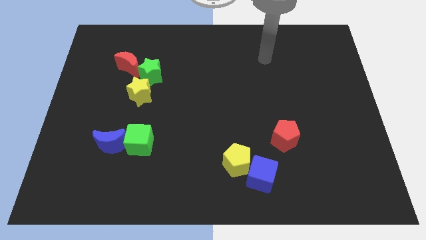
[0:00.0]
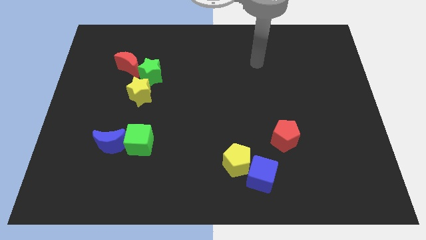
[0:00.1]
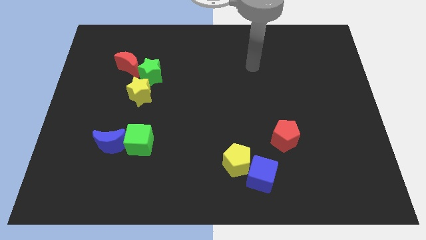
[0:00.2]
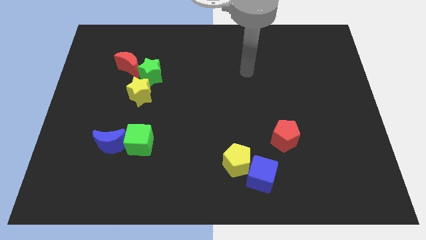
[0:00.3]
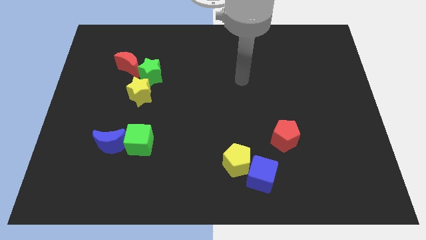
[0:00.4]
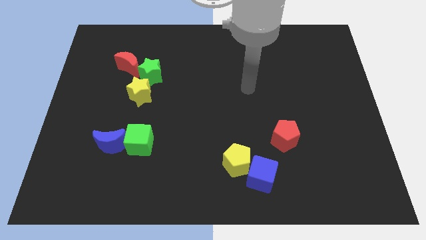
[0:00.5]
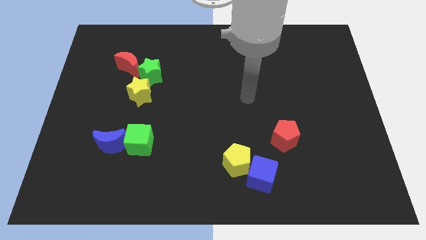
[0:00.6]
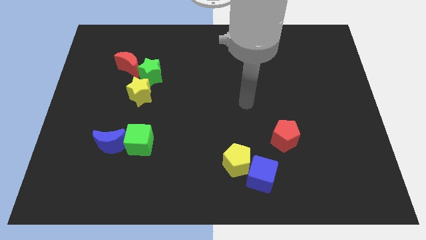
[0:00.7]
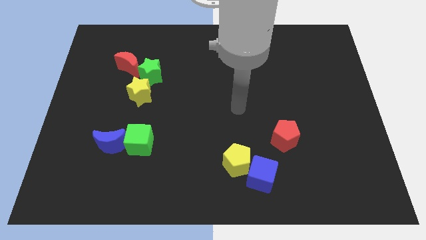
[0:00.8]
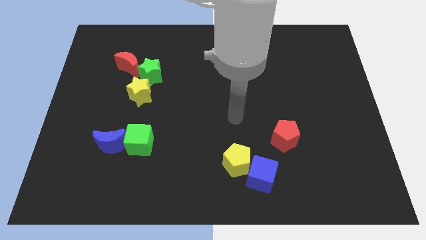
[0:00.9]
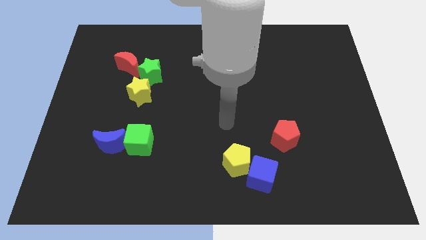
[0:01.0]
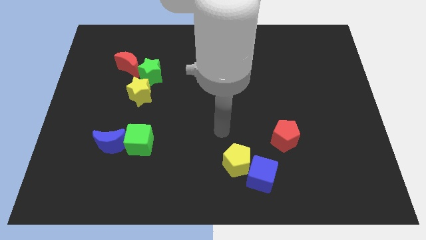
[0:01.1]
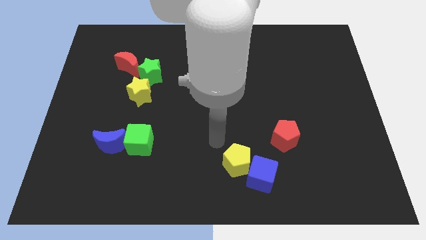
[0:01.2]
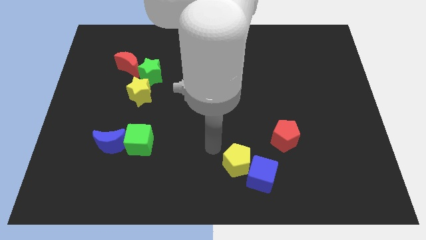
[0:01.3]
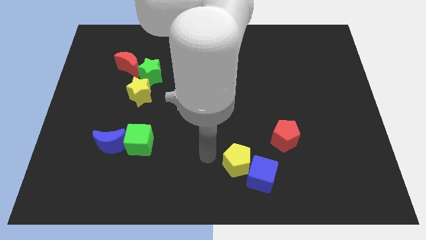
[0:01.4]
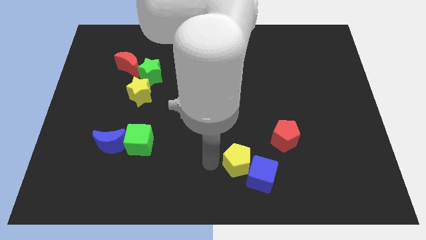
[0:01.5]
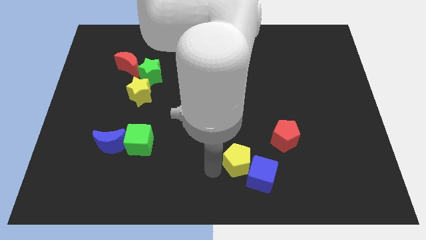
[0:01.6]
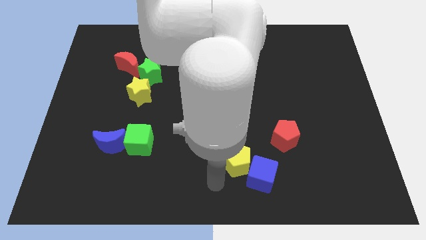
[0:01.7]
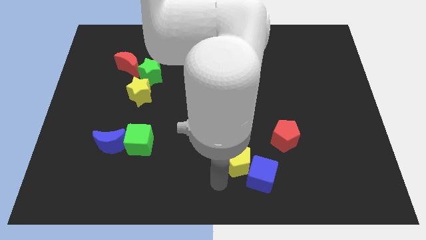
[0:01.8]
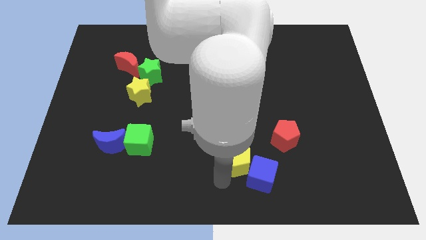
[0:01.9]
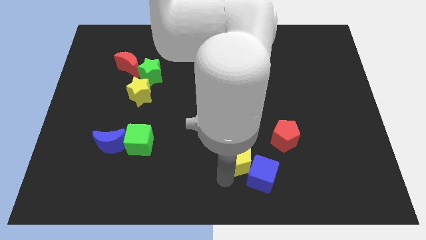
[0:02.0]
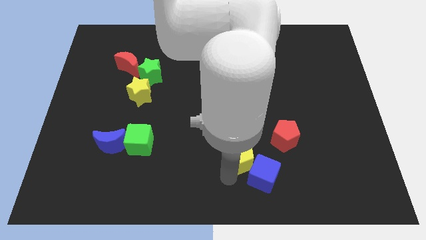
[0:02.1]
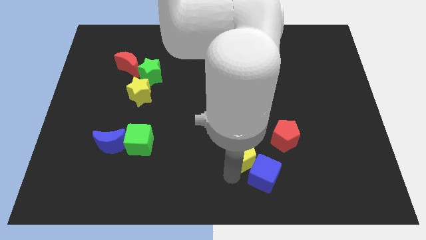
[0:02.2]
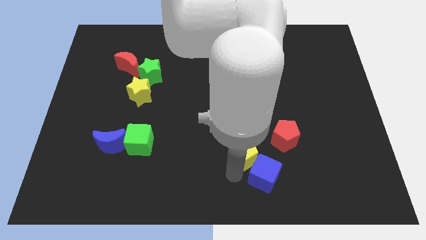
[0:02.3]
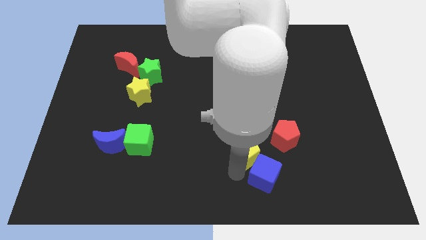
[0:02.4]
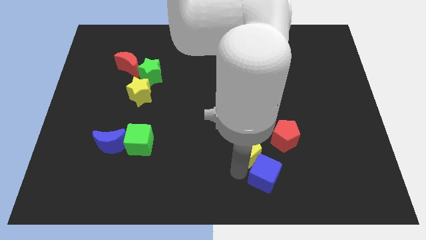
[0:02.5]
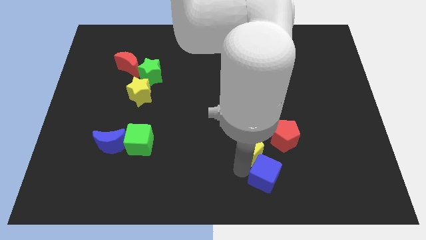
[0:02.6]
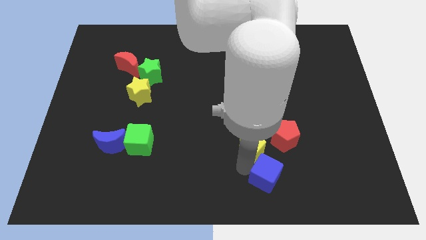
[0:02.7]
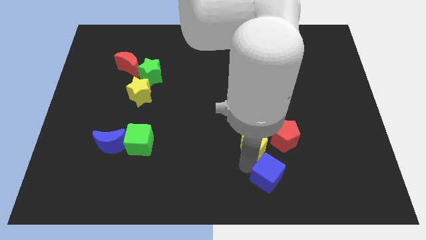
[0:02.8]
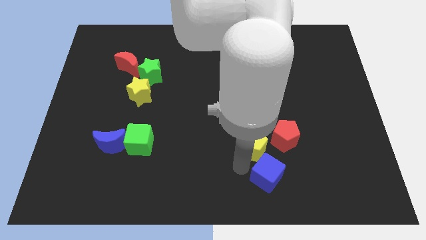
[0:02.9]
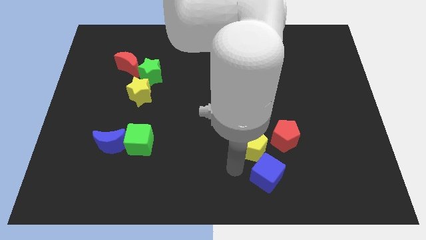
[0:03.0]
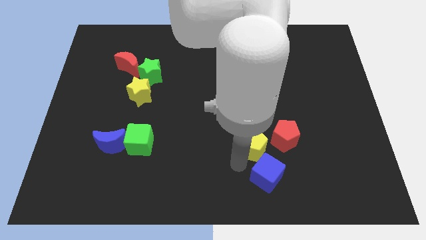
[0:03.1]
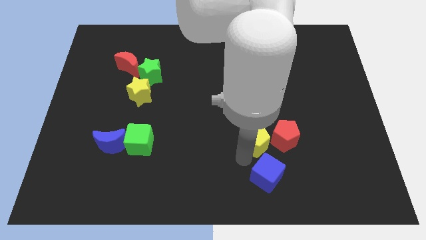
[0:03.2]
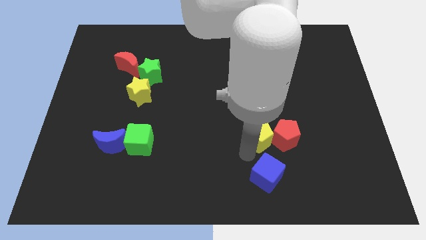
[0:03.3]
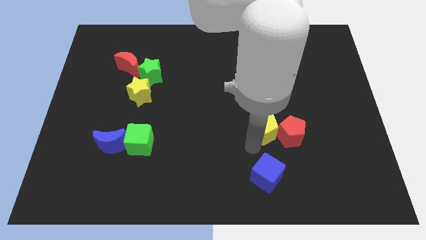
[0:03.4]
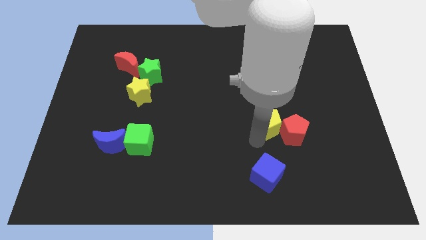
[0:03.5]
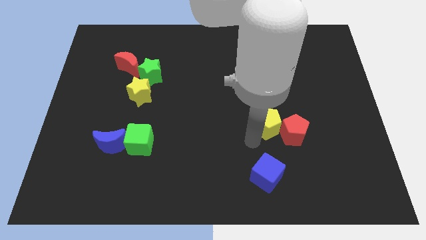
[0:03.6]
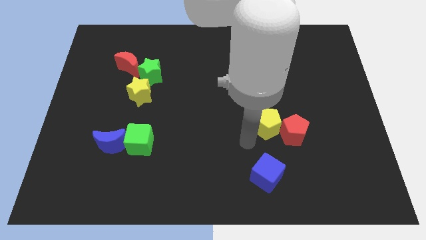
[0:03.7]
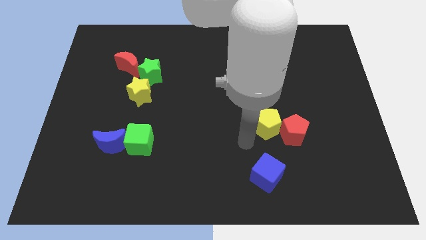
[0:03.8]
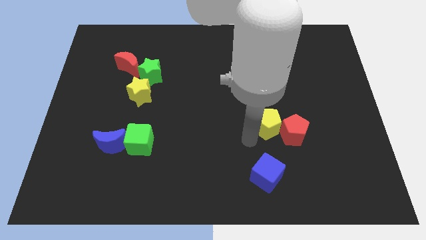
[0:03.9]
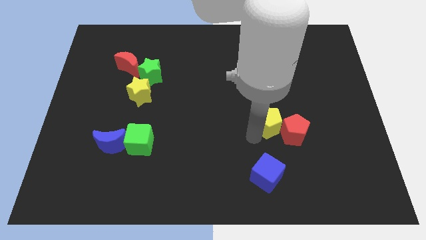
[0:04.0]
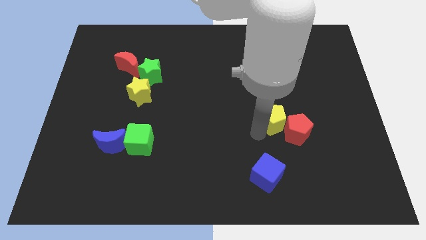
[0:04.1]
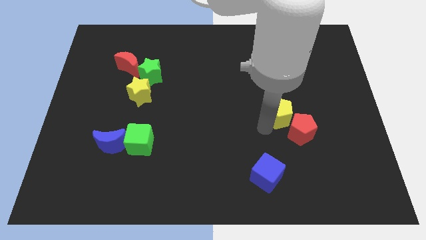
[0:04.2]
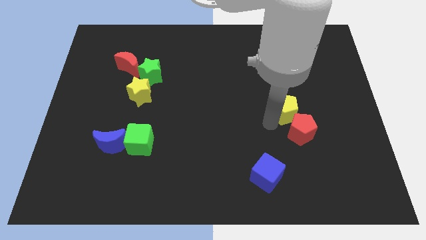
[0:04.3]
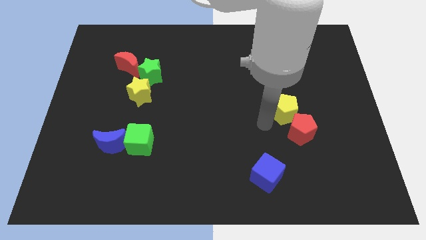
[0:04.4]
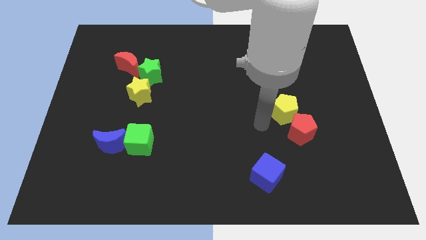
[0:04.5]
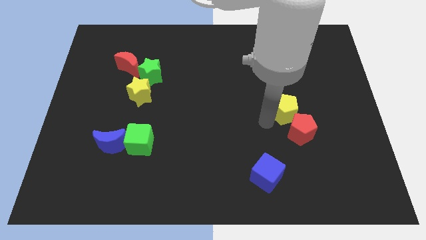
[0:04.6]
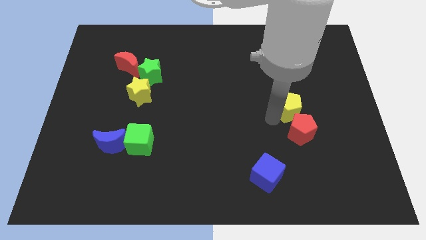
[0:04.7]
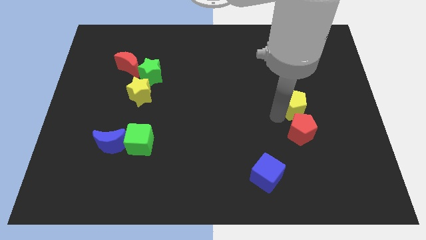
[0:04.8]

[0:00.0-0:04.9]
push the yellow pentagon upwards and then to the right

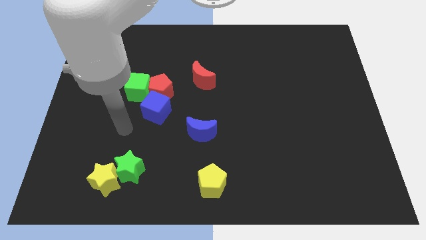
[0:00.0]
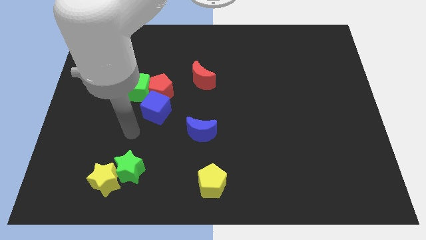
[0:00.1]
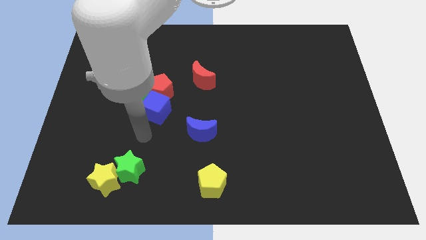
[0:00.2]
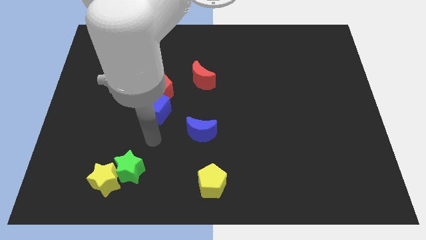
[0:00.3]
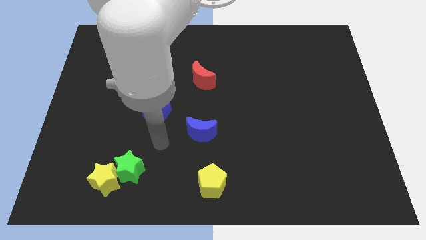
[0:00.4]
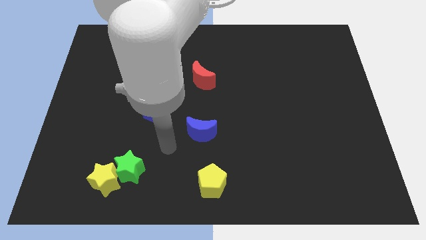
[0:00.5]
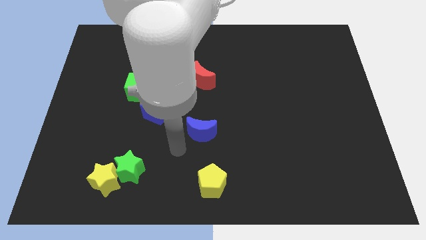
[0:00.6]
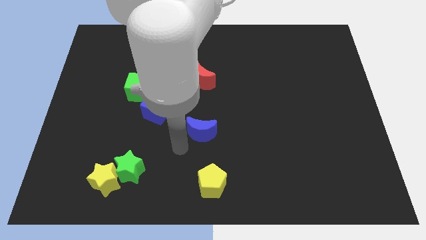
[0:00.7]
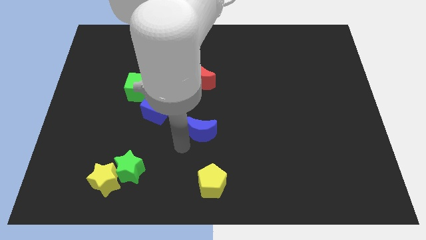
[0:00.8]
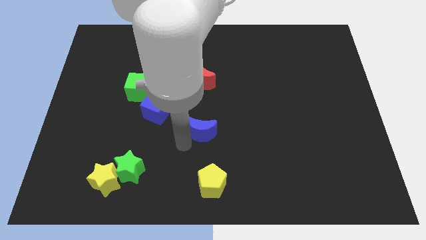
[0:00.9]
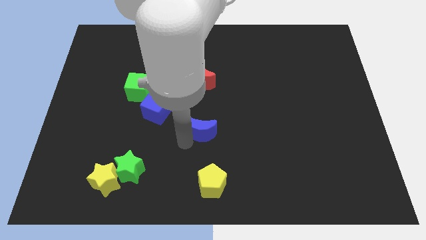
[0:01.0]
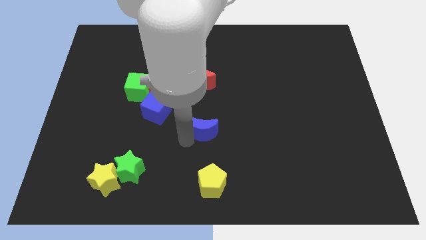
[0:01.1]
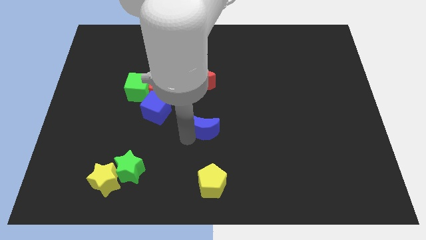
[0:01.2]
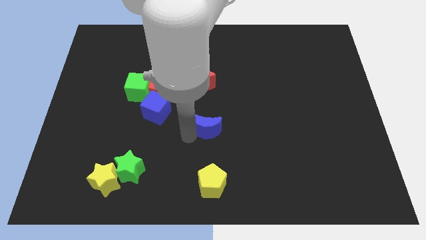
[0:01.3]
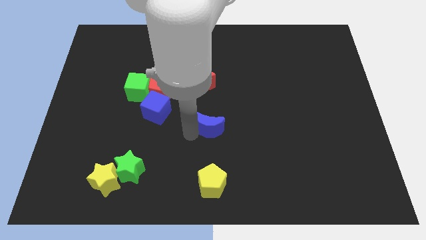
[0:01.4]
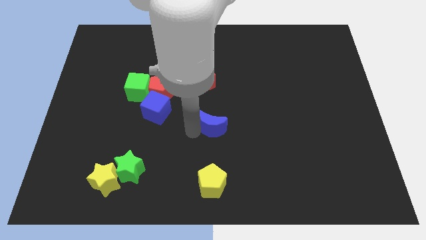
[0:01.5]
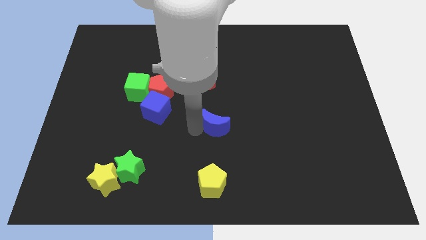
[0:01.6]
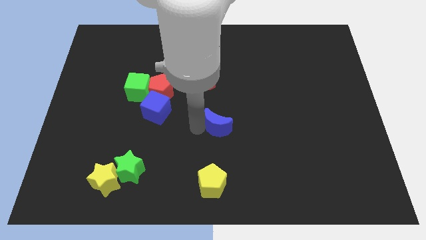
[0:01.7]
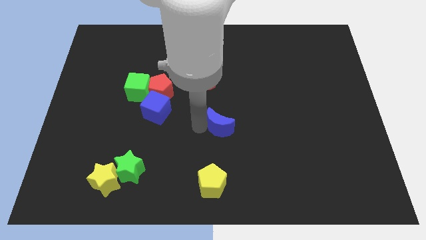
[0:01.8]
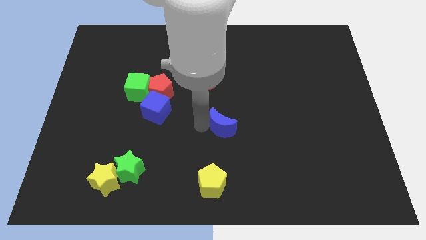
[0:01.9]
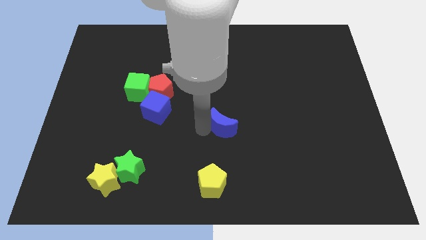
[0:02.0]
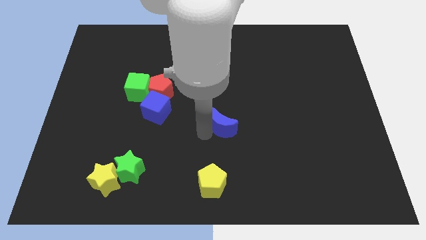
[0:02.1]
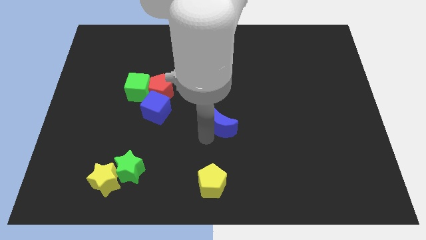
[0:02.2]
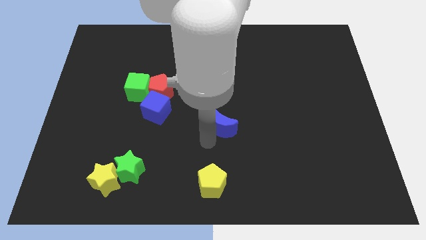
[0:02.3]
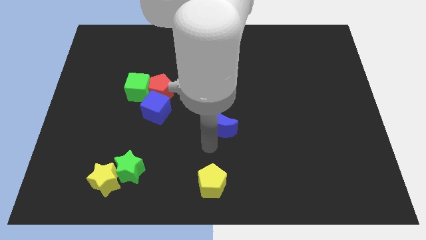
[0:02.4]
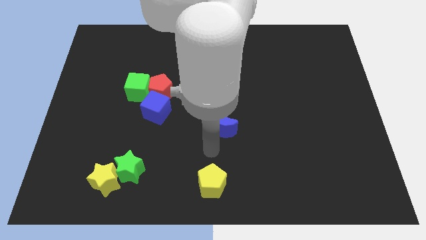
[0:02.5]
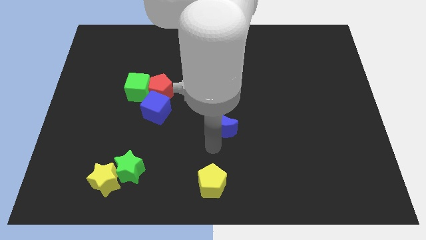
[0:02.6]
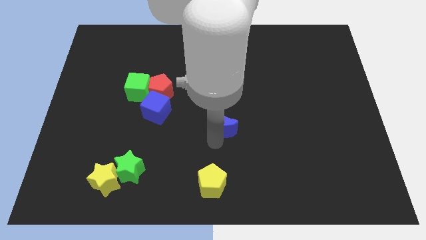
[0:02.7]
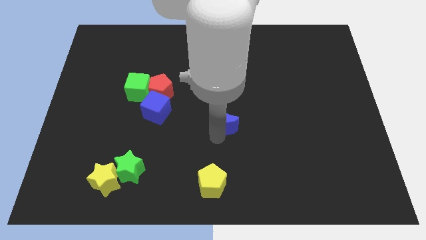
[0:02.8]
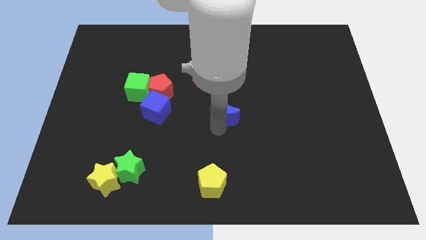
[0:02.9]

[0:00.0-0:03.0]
push the blue moon upwards and to the right a little bit

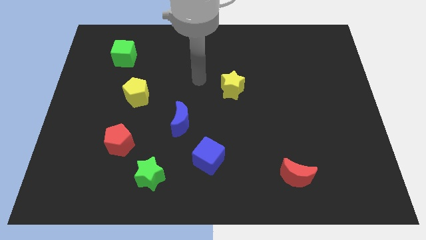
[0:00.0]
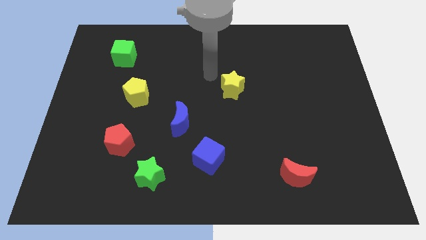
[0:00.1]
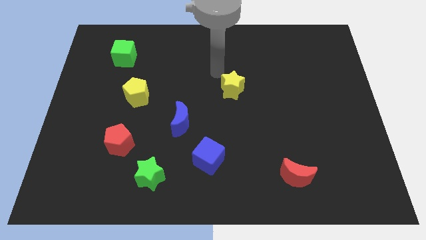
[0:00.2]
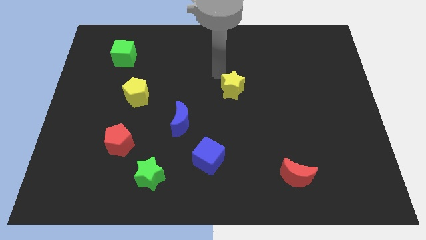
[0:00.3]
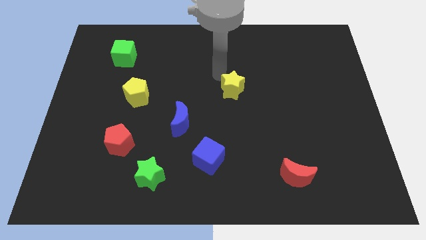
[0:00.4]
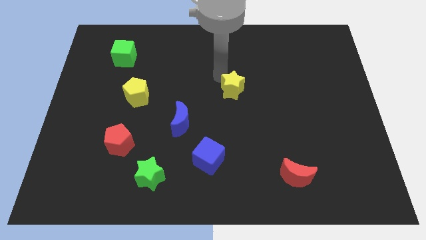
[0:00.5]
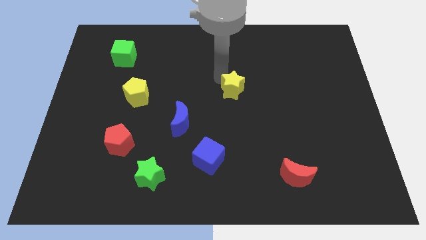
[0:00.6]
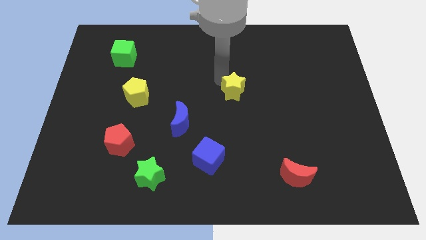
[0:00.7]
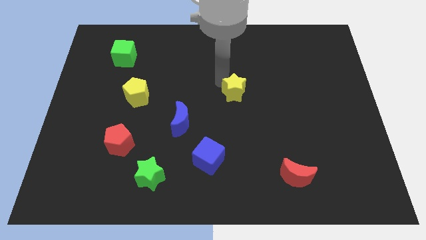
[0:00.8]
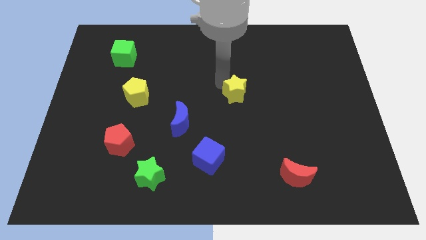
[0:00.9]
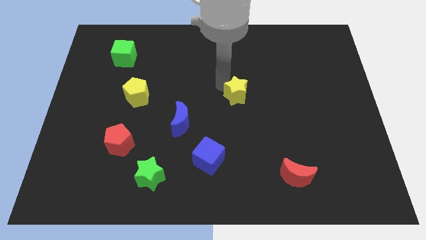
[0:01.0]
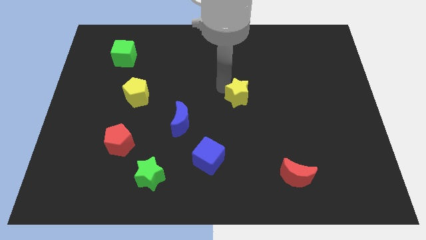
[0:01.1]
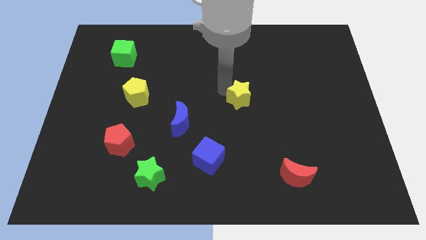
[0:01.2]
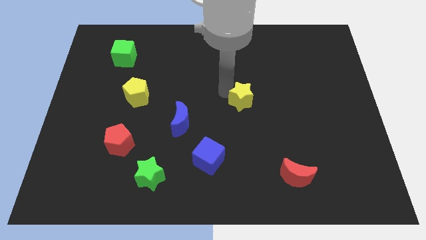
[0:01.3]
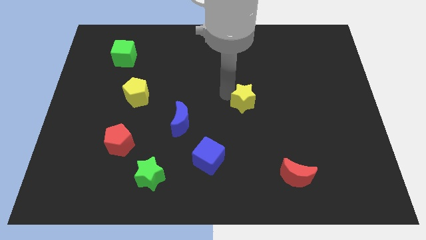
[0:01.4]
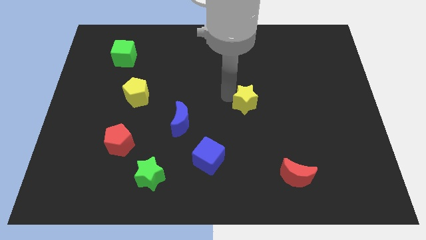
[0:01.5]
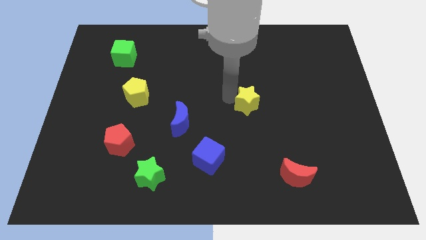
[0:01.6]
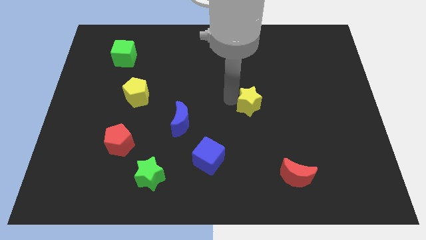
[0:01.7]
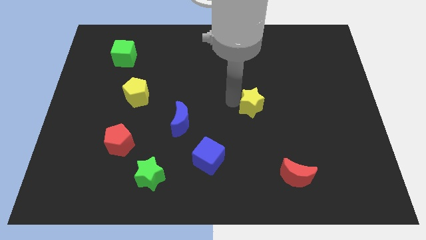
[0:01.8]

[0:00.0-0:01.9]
move the yellow star down and then to the right a bit
